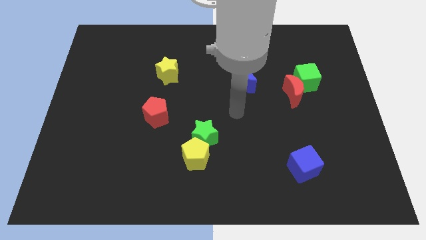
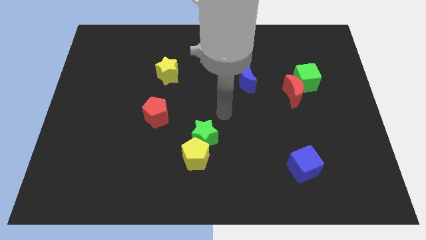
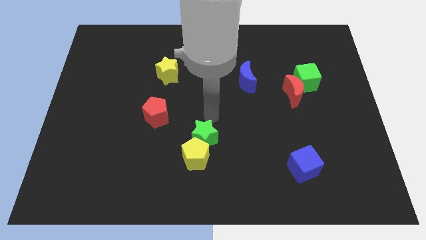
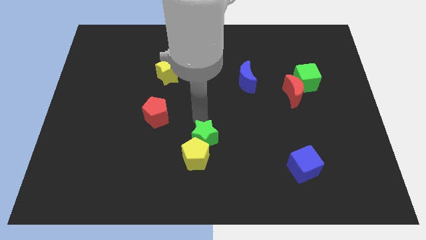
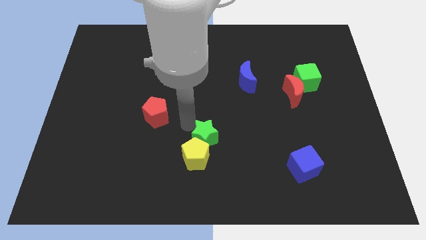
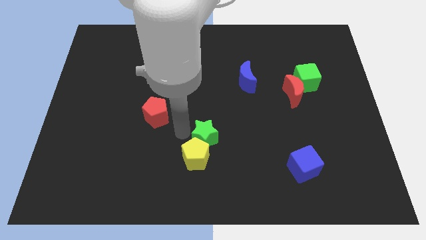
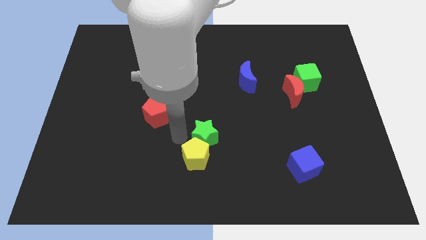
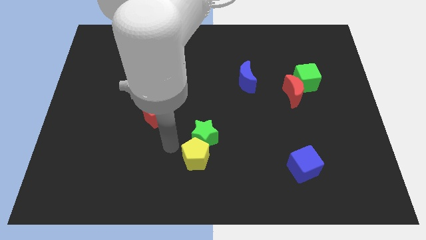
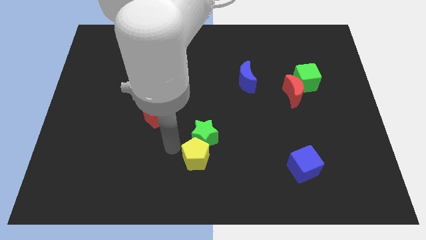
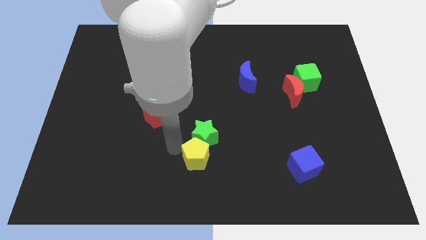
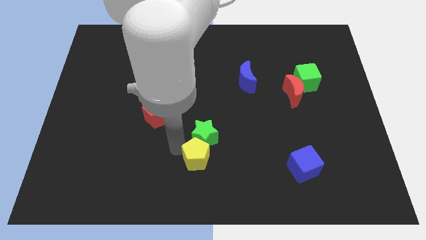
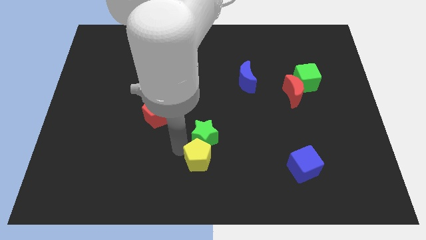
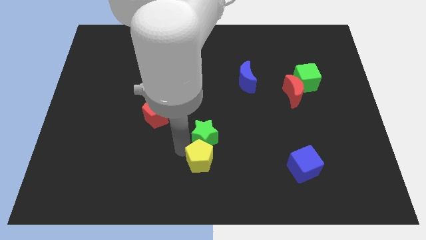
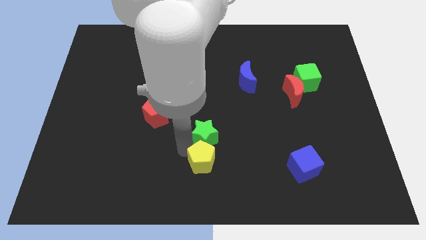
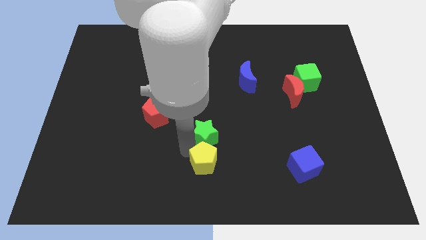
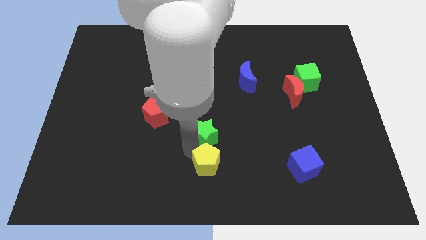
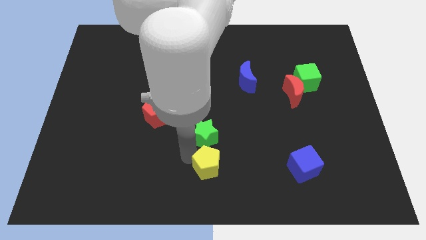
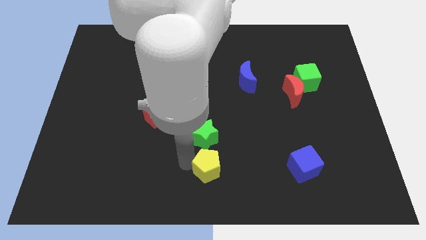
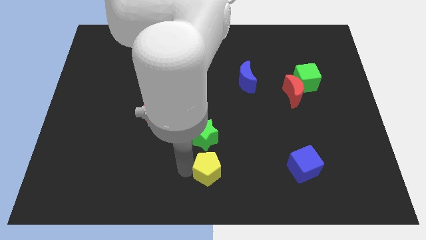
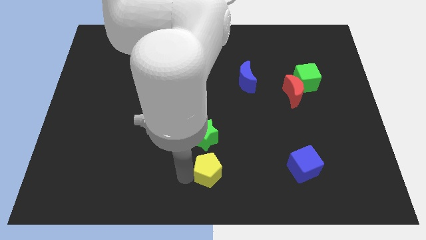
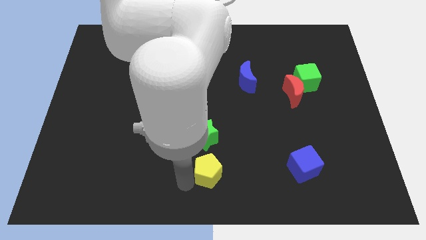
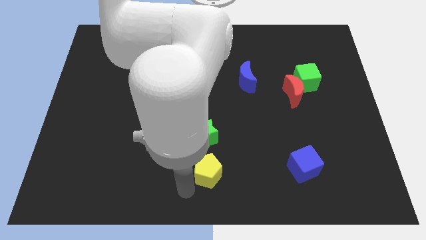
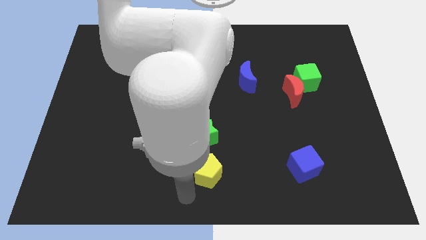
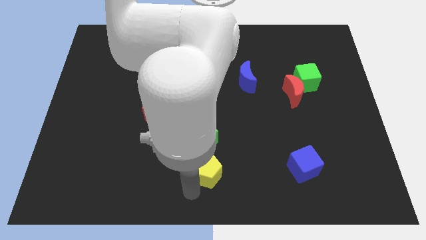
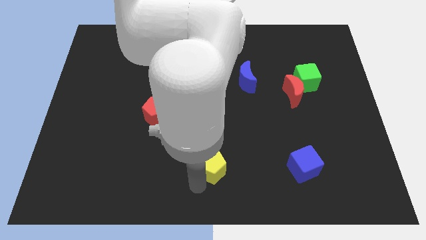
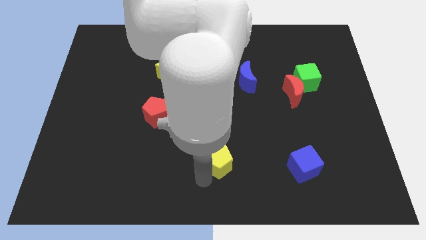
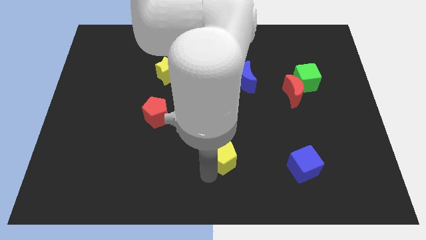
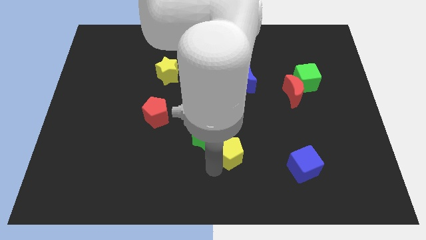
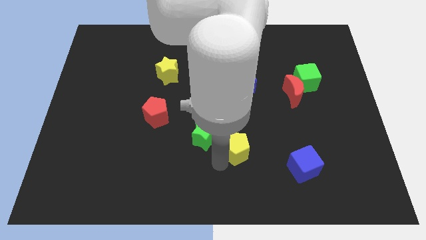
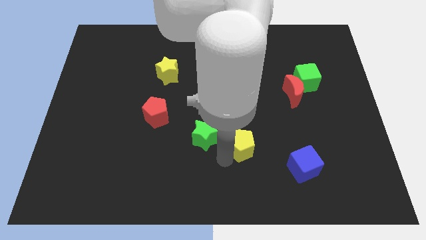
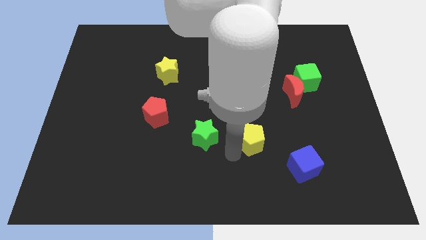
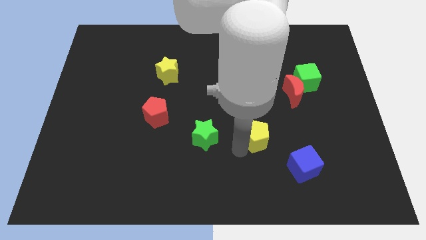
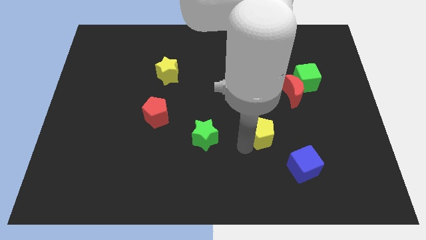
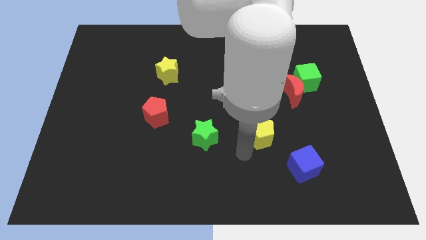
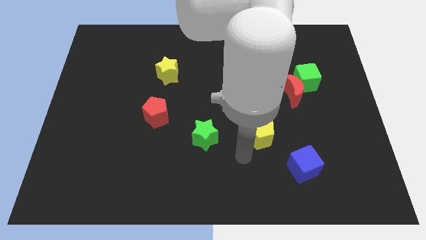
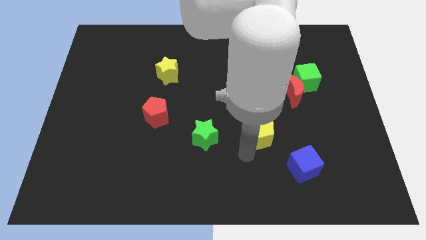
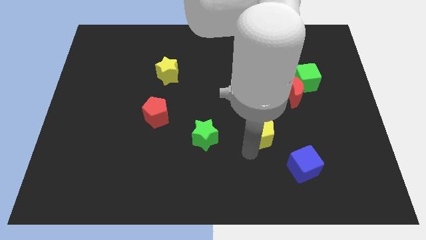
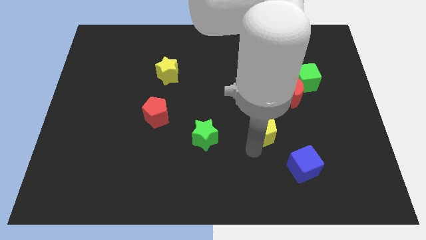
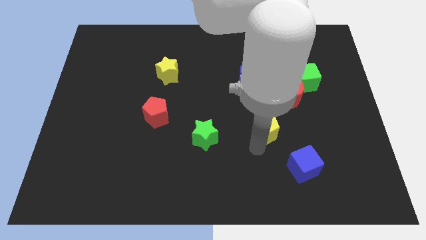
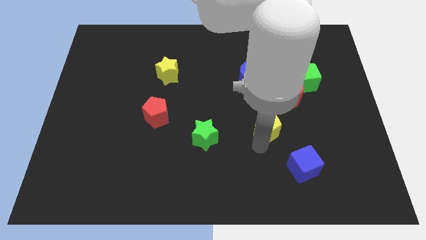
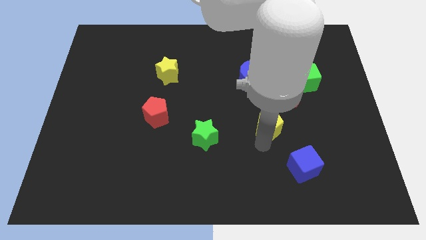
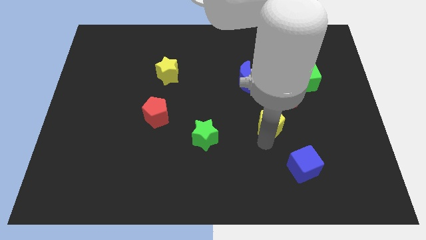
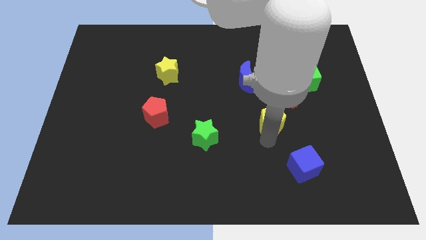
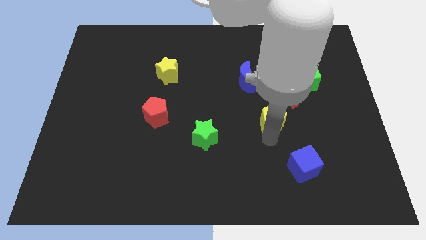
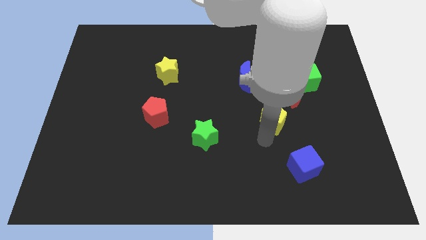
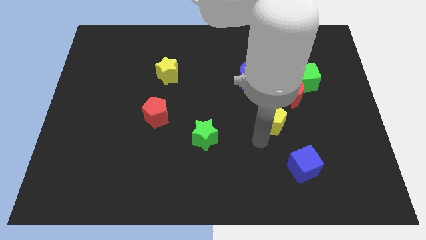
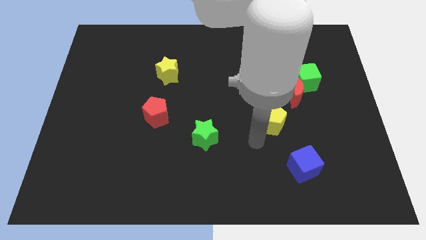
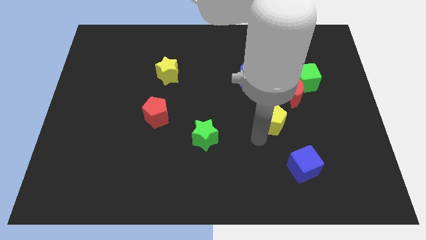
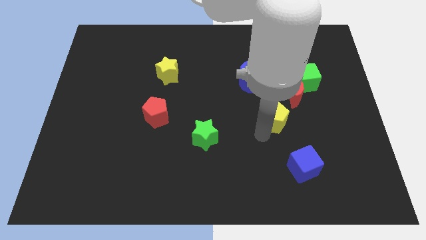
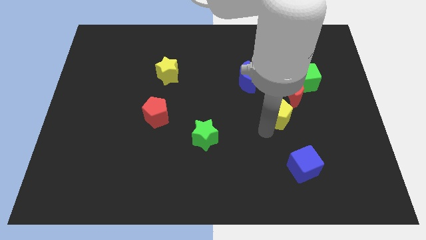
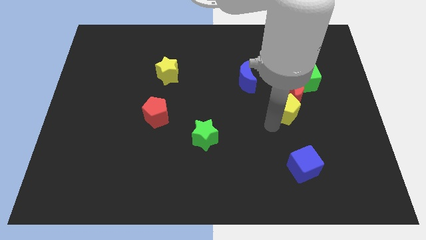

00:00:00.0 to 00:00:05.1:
push the yellow pentagon close to the red moon

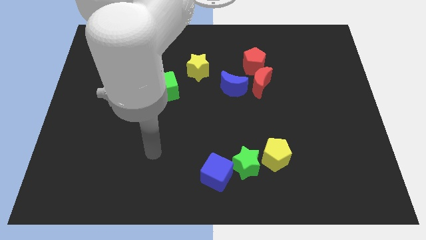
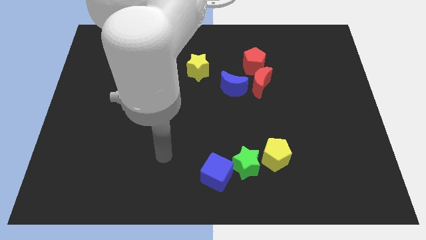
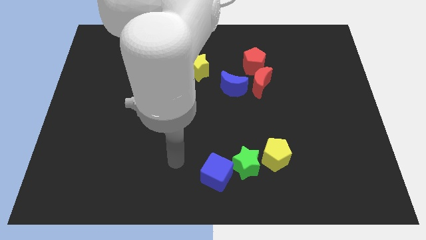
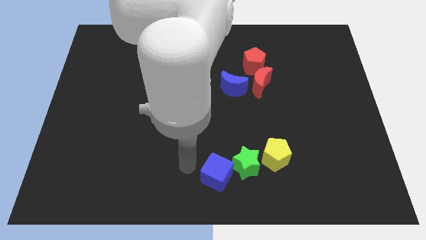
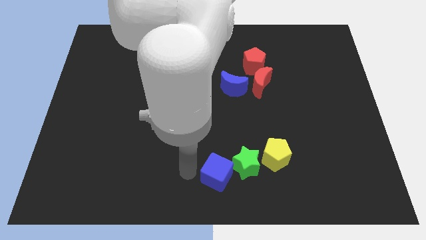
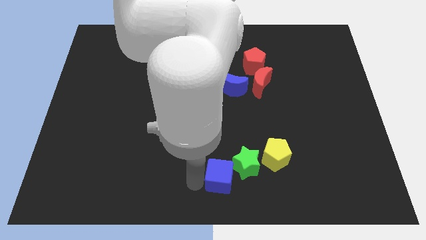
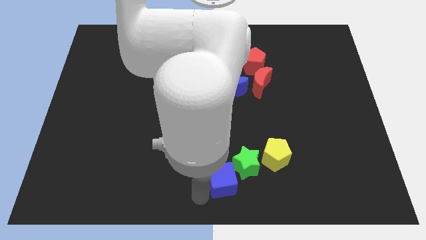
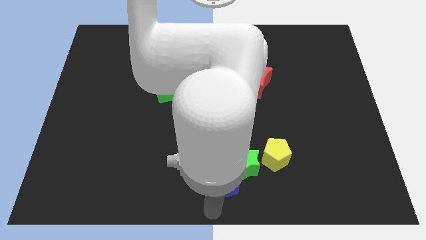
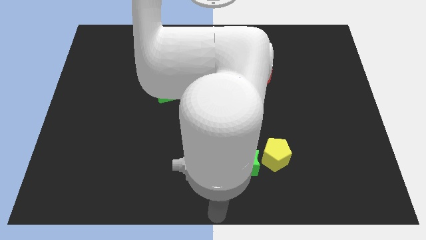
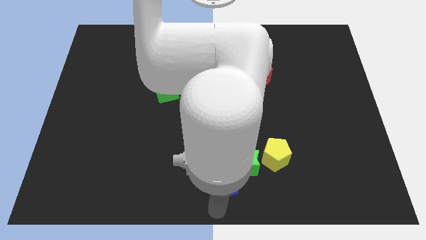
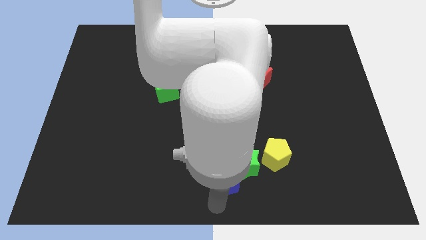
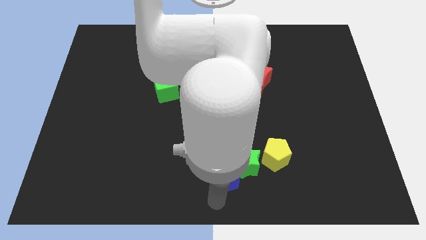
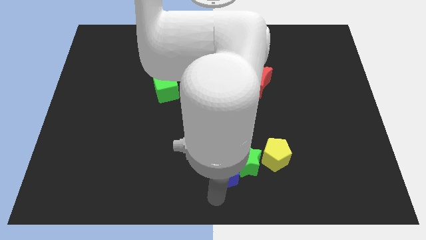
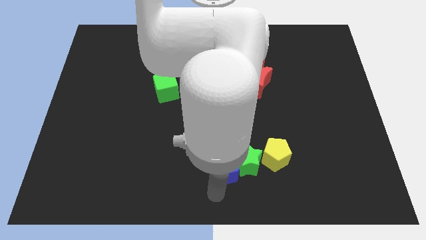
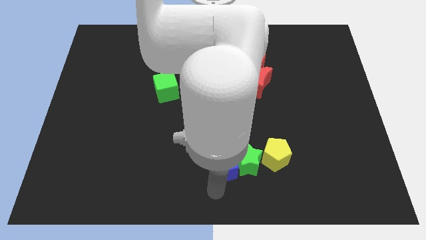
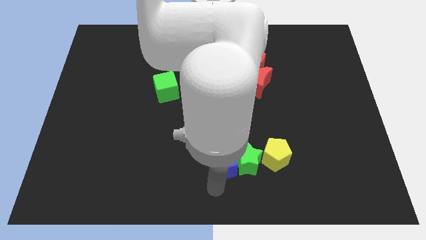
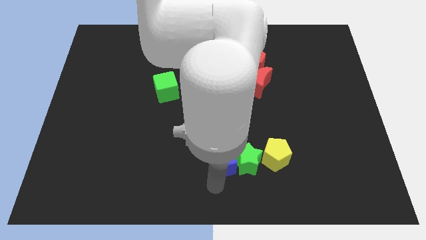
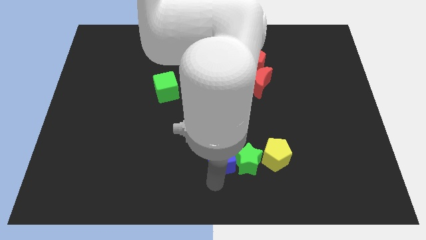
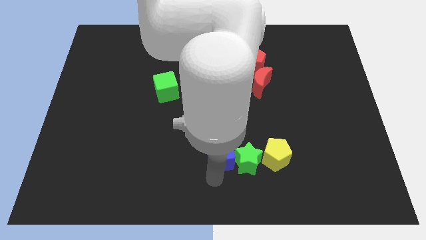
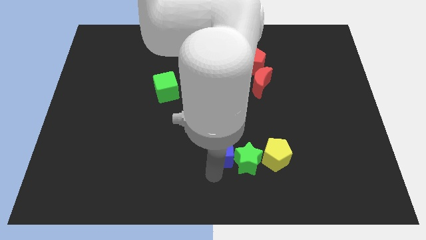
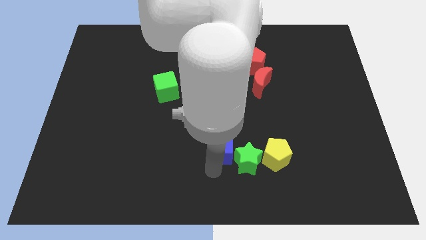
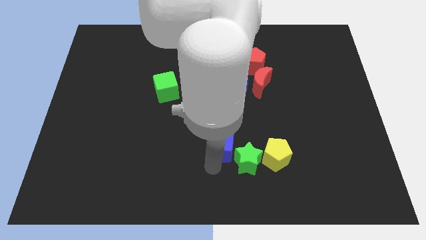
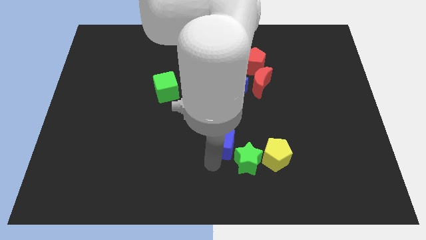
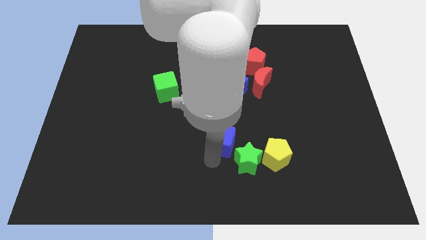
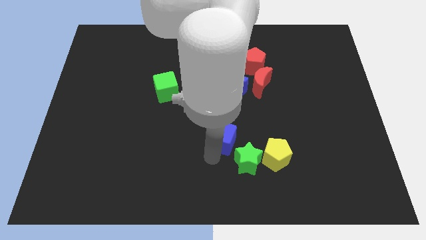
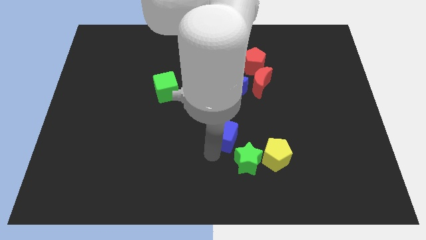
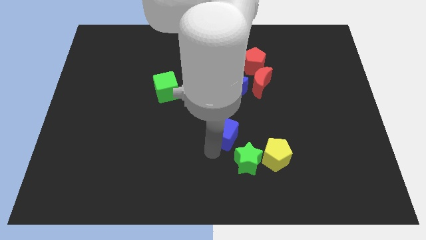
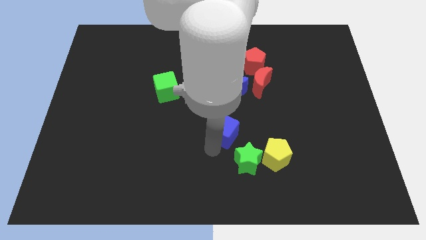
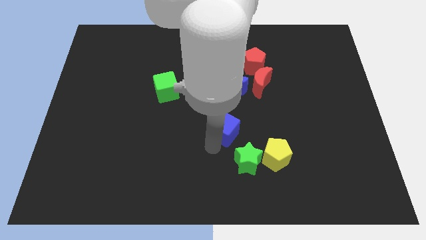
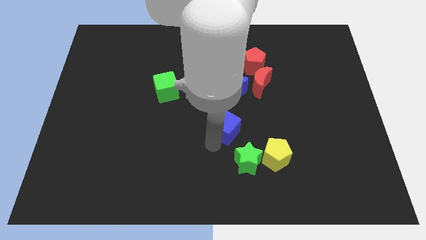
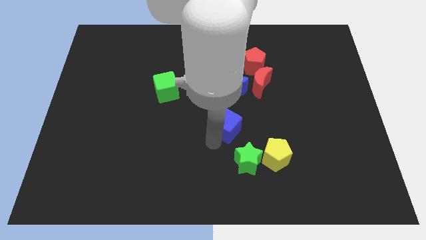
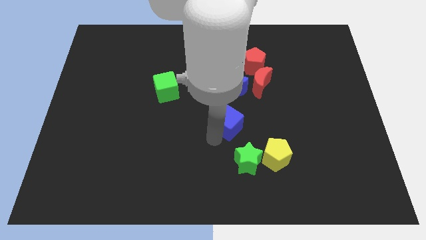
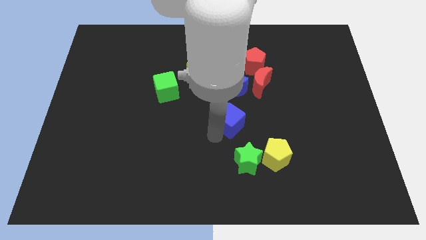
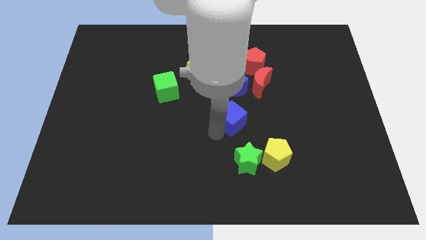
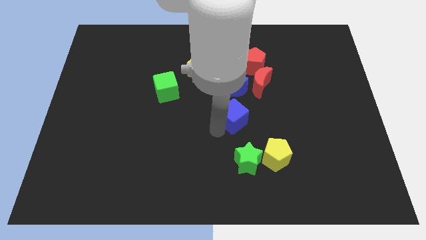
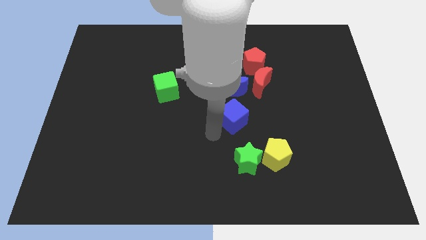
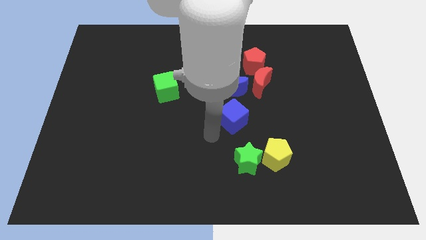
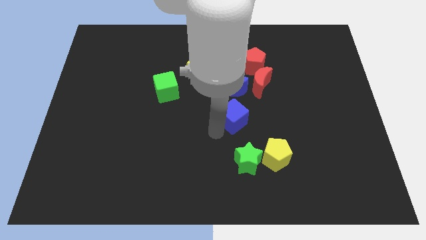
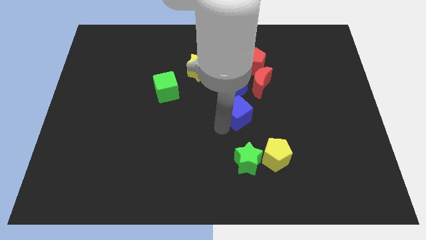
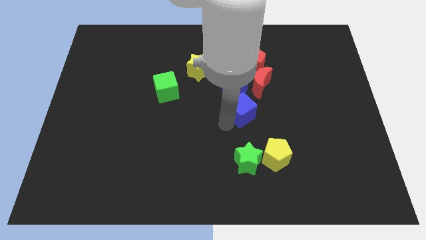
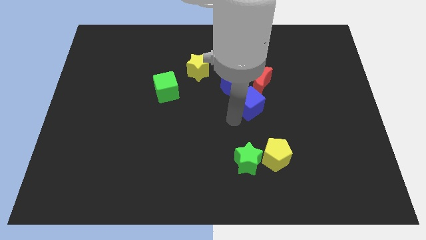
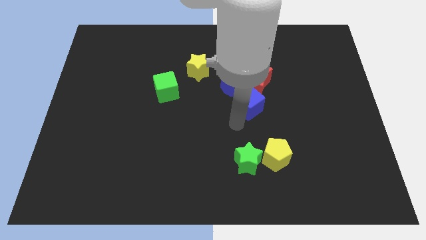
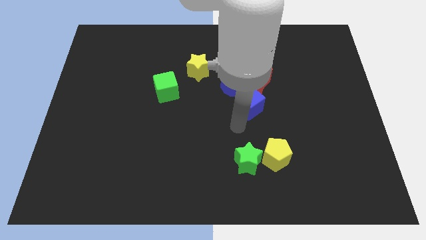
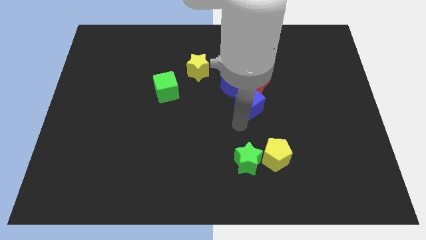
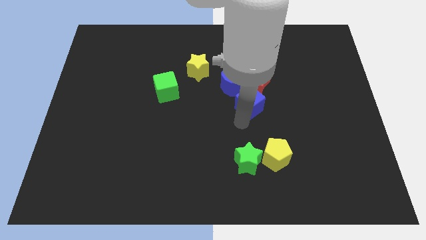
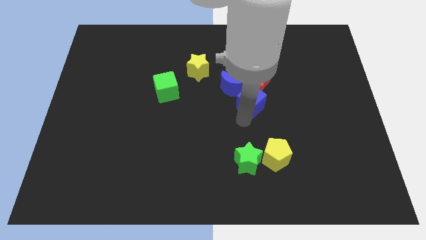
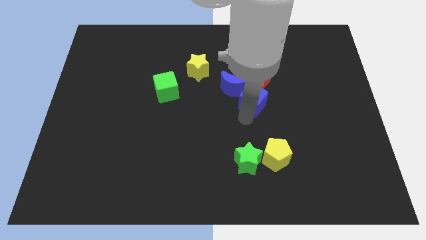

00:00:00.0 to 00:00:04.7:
slide the blue cube next to the red moon
